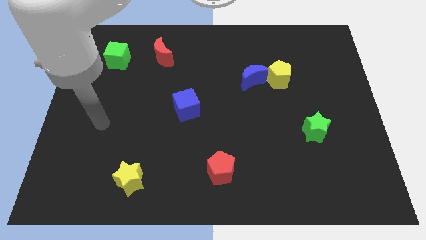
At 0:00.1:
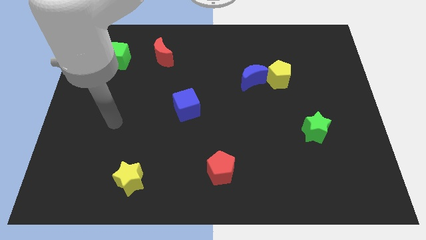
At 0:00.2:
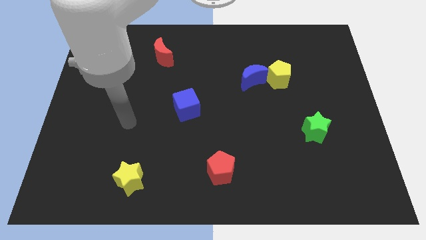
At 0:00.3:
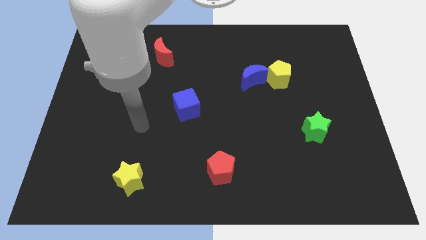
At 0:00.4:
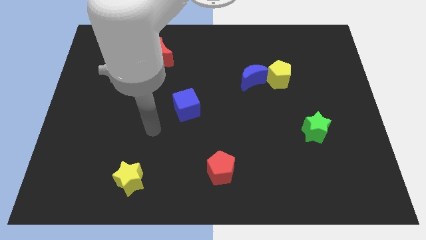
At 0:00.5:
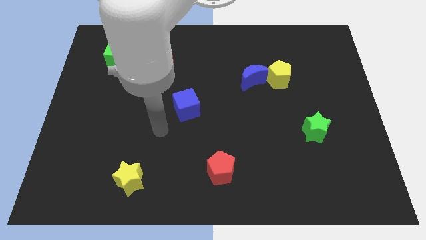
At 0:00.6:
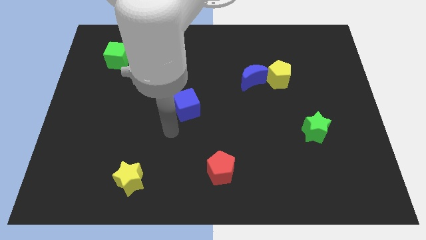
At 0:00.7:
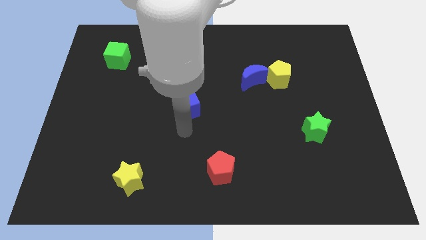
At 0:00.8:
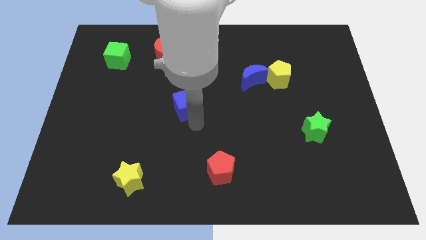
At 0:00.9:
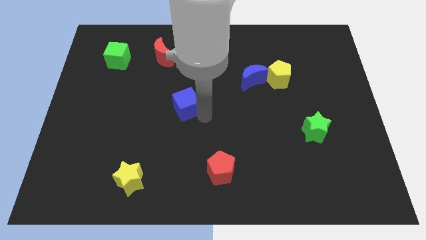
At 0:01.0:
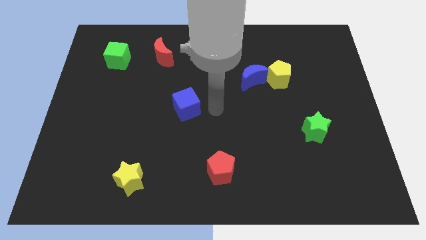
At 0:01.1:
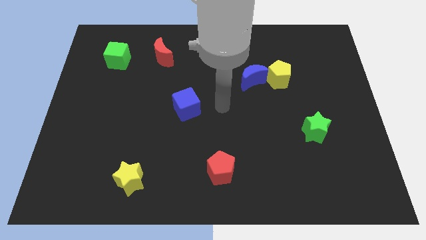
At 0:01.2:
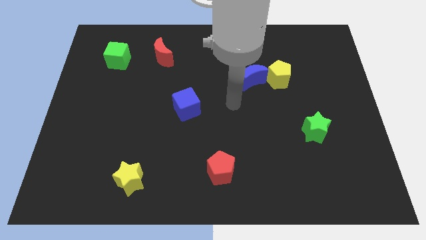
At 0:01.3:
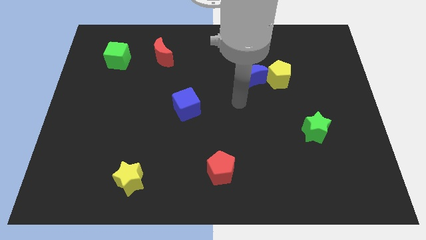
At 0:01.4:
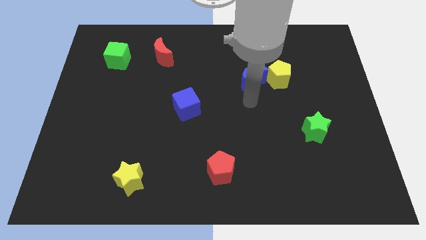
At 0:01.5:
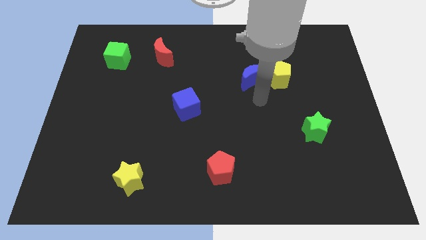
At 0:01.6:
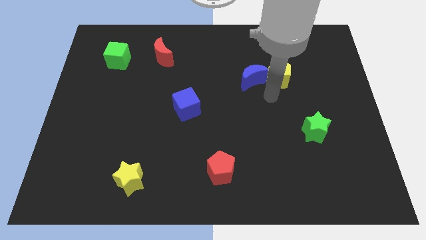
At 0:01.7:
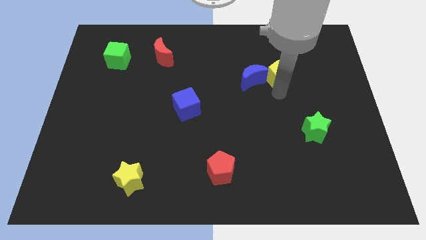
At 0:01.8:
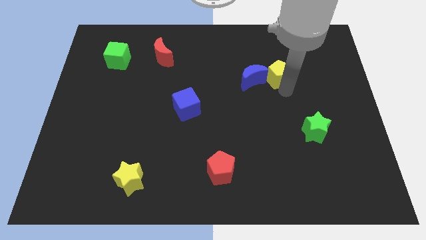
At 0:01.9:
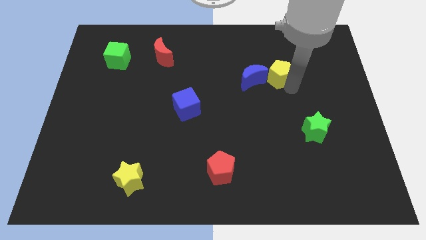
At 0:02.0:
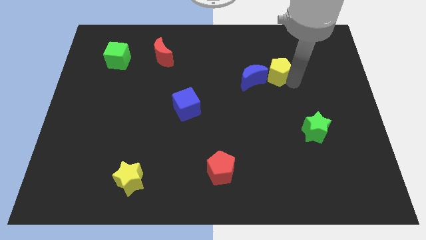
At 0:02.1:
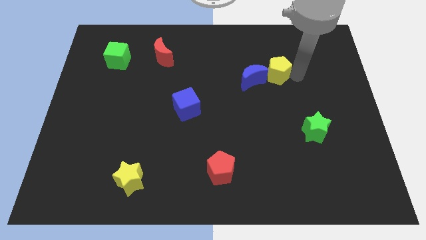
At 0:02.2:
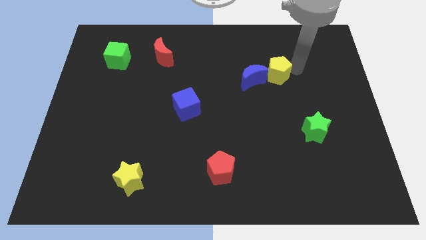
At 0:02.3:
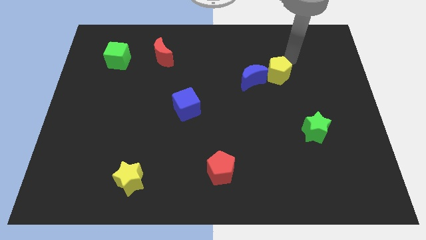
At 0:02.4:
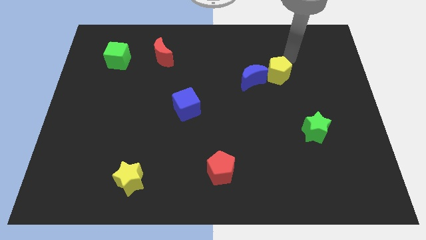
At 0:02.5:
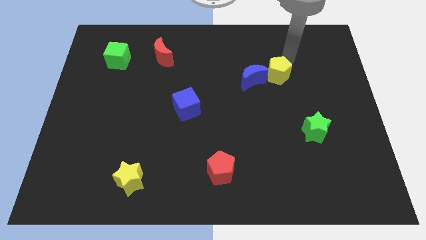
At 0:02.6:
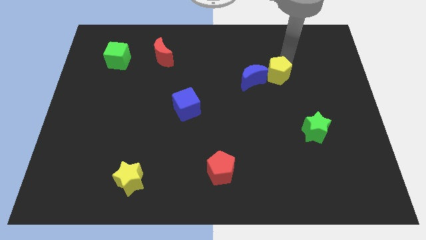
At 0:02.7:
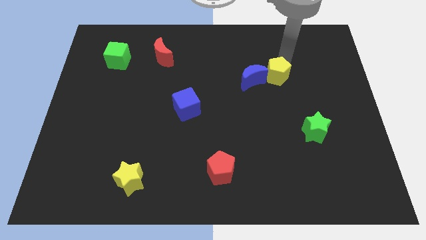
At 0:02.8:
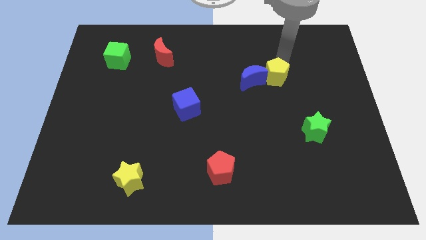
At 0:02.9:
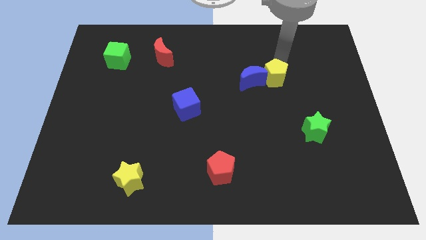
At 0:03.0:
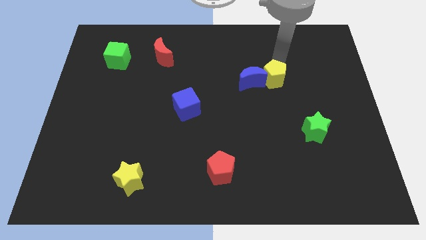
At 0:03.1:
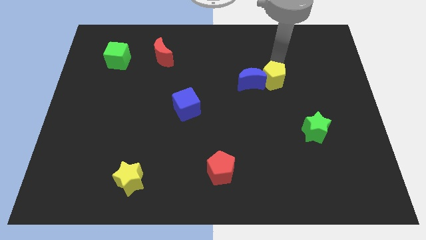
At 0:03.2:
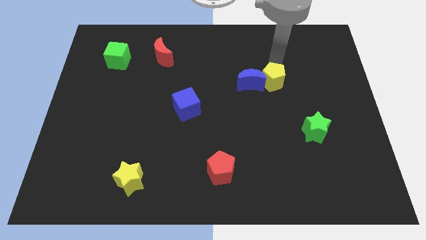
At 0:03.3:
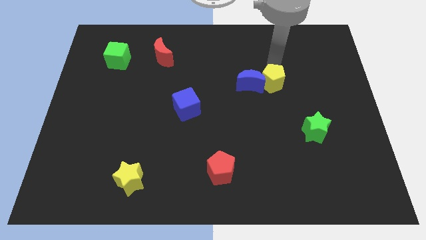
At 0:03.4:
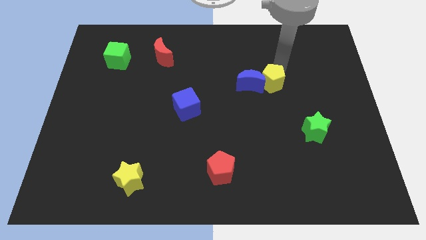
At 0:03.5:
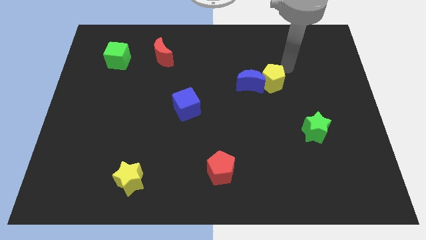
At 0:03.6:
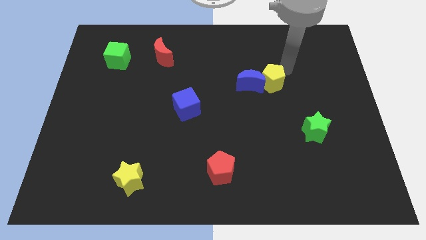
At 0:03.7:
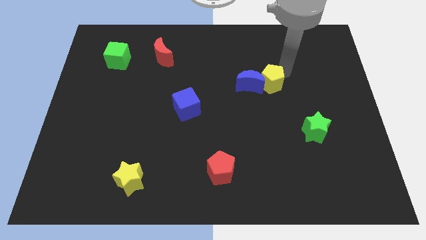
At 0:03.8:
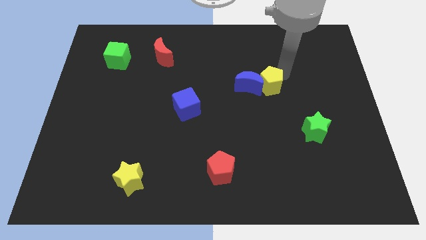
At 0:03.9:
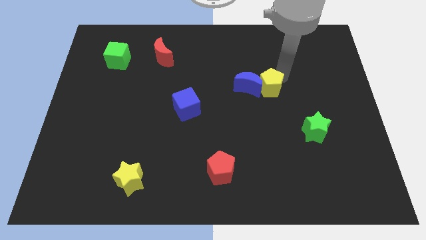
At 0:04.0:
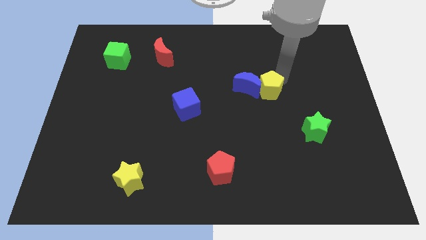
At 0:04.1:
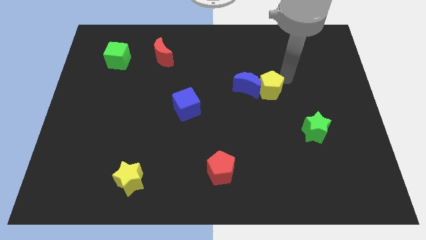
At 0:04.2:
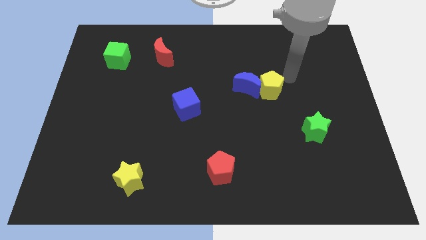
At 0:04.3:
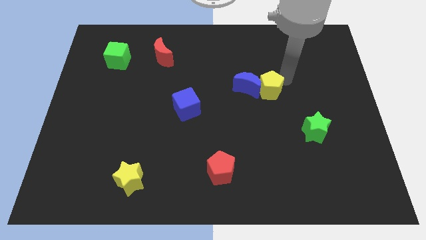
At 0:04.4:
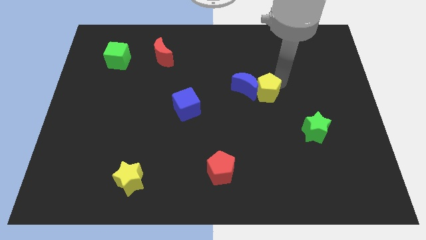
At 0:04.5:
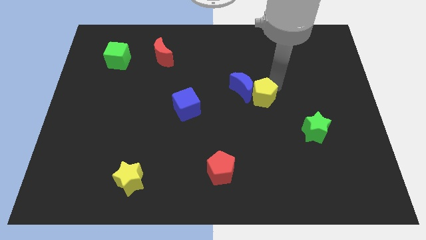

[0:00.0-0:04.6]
push the yellow pentagon downwards and left diagonally somewhat

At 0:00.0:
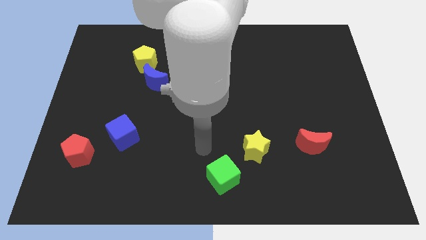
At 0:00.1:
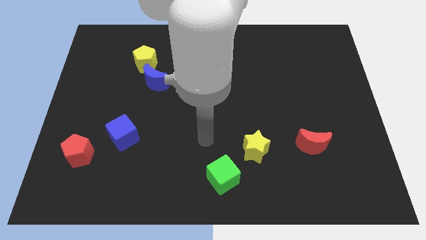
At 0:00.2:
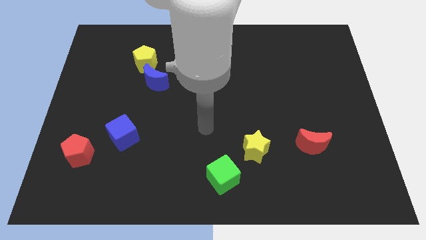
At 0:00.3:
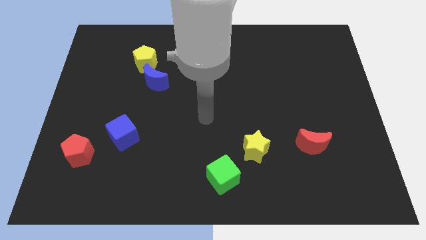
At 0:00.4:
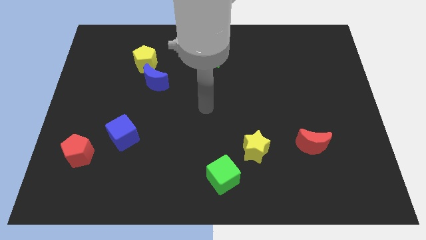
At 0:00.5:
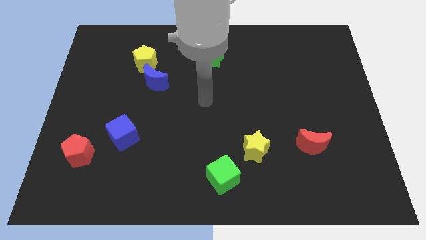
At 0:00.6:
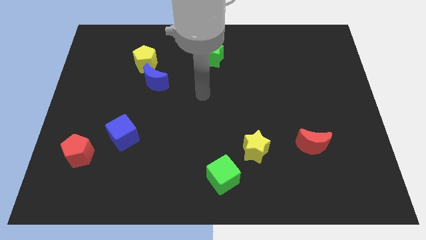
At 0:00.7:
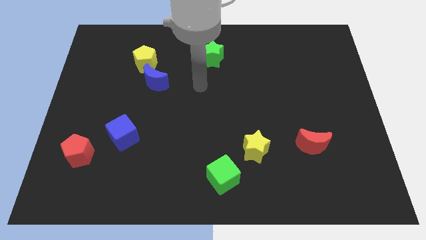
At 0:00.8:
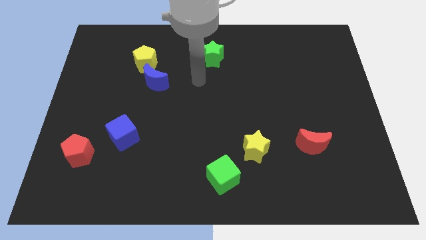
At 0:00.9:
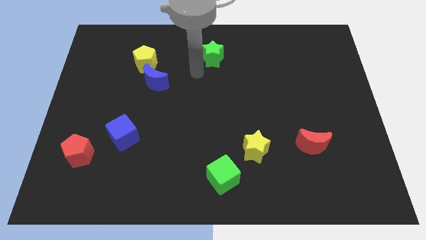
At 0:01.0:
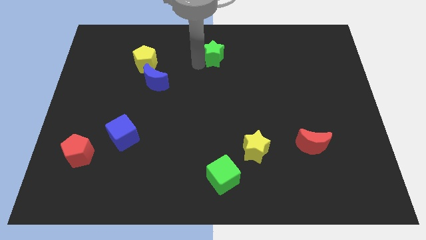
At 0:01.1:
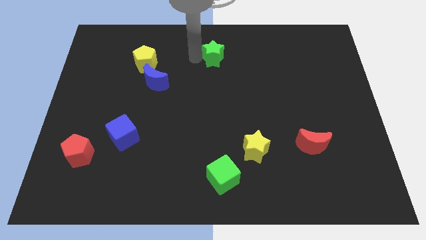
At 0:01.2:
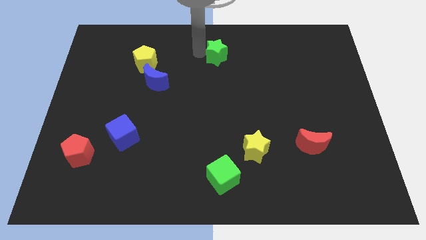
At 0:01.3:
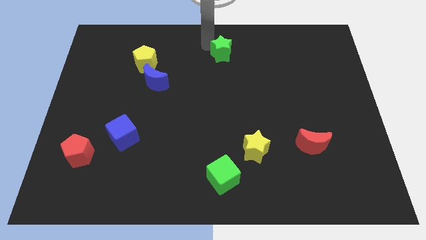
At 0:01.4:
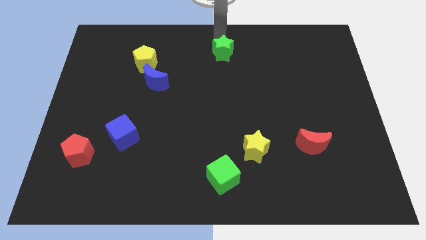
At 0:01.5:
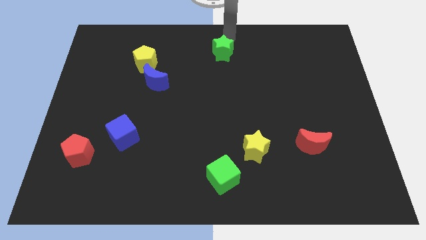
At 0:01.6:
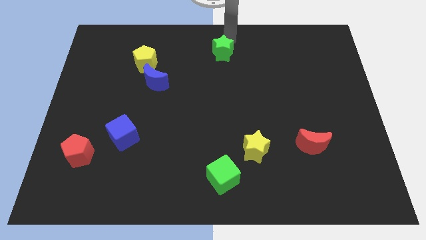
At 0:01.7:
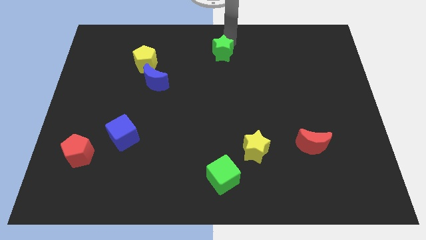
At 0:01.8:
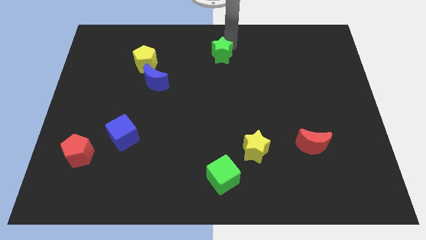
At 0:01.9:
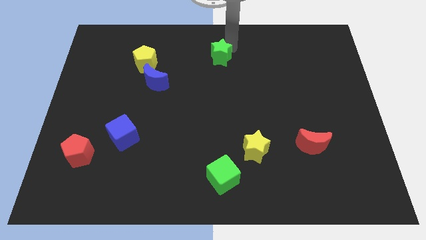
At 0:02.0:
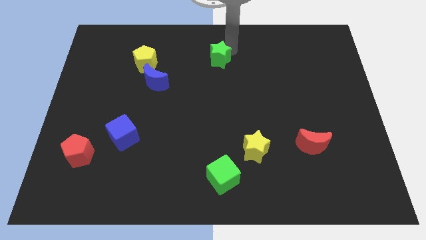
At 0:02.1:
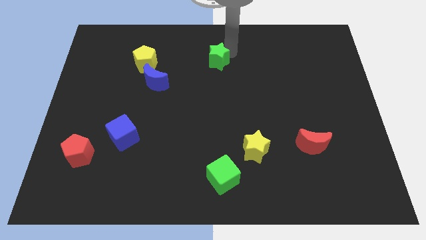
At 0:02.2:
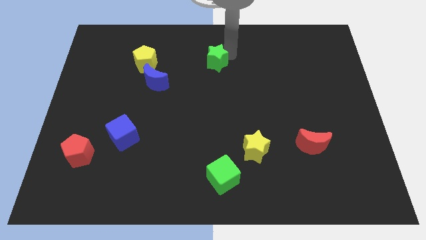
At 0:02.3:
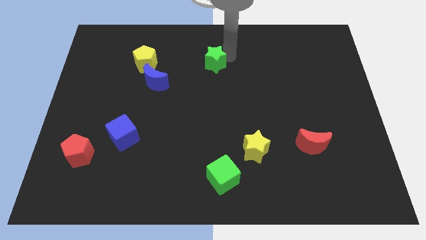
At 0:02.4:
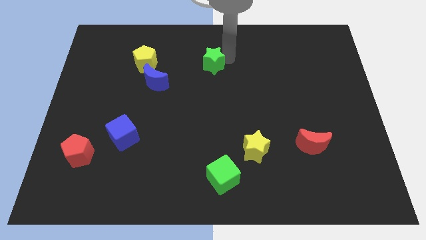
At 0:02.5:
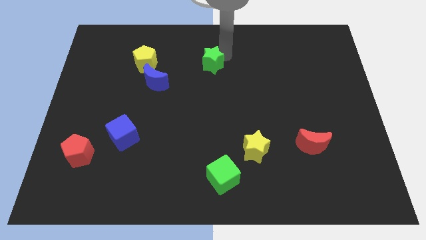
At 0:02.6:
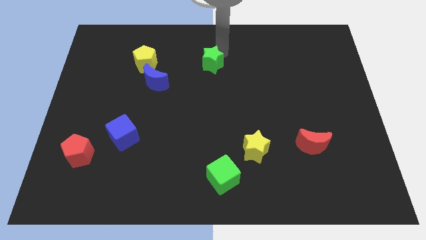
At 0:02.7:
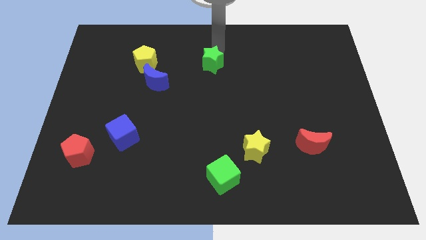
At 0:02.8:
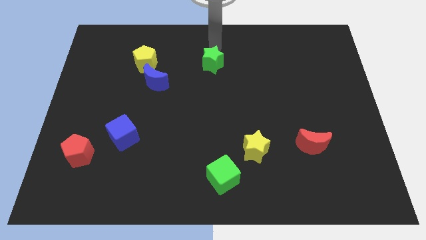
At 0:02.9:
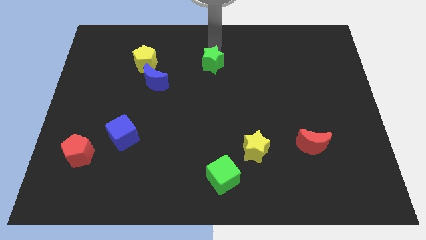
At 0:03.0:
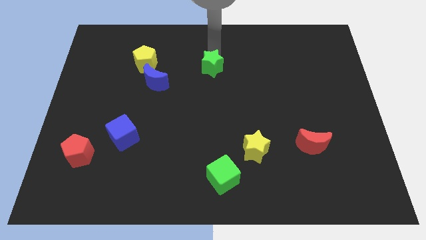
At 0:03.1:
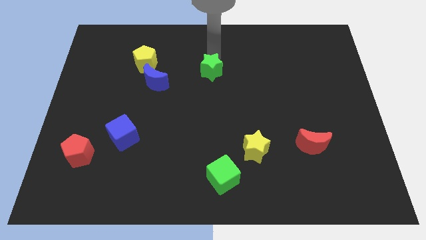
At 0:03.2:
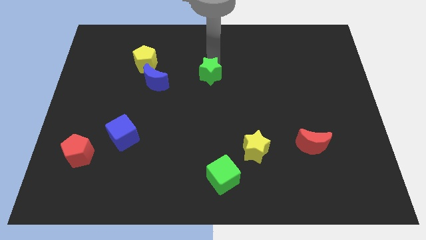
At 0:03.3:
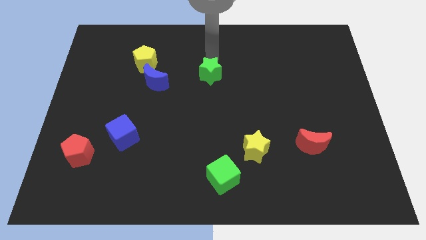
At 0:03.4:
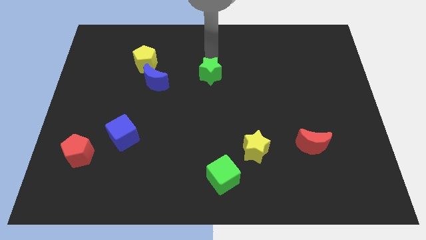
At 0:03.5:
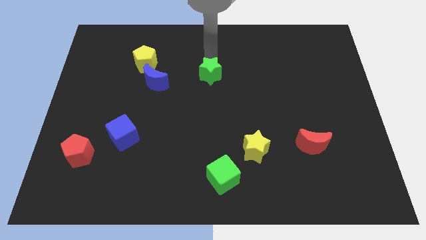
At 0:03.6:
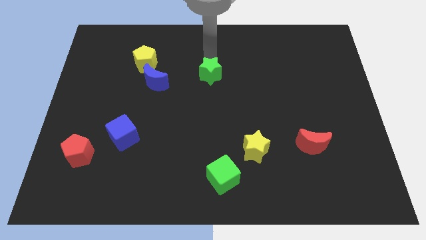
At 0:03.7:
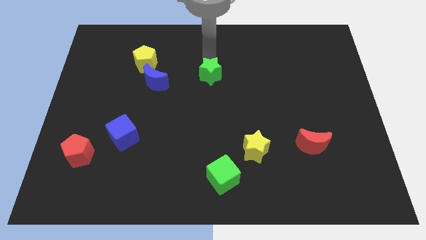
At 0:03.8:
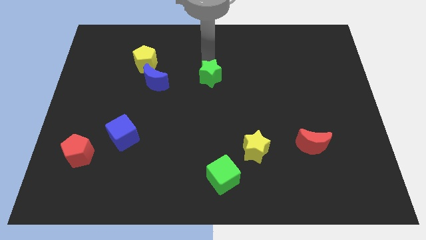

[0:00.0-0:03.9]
slide the green star slightly downwards
